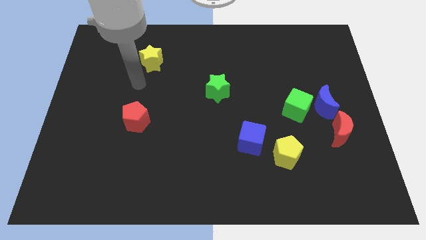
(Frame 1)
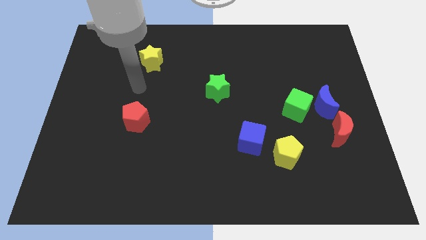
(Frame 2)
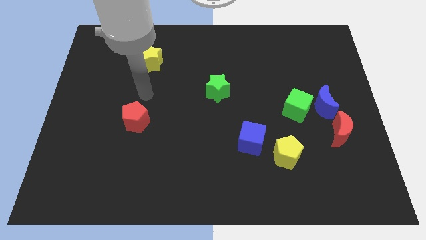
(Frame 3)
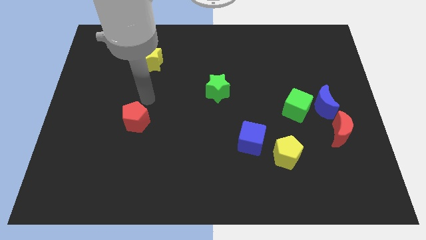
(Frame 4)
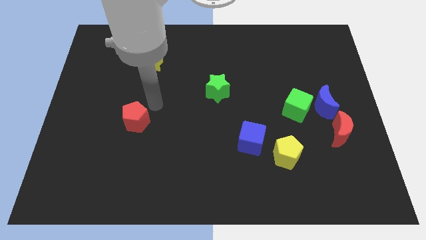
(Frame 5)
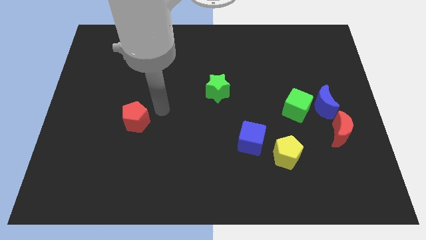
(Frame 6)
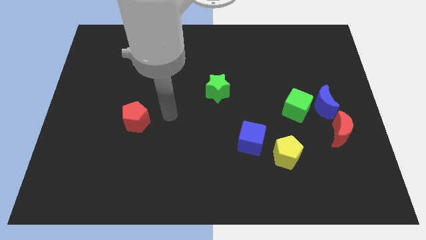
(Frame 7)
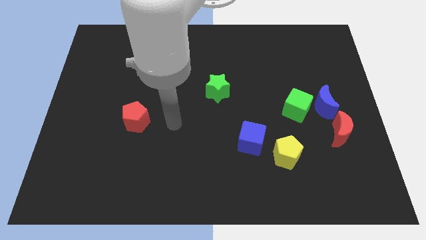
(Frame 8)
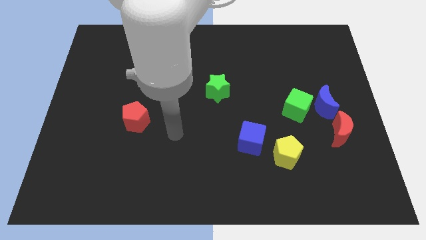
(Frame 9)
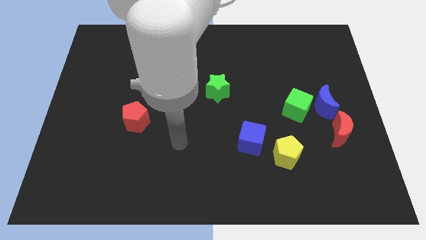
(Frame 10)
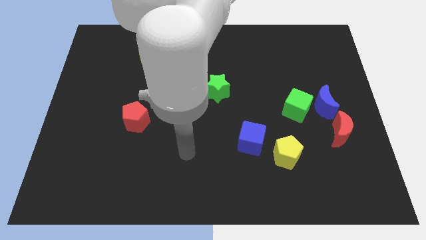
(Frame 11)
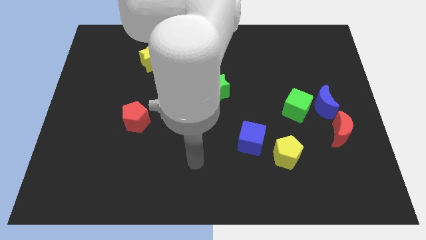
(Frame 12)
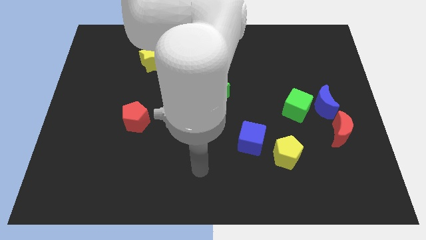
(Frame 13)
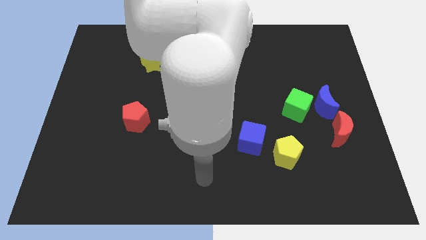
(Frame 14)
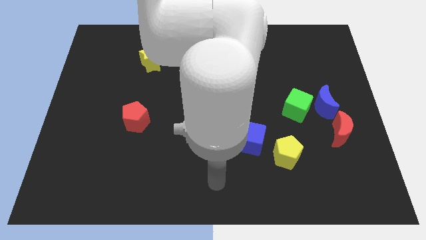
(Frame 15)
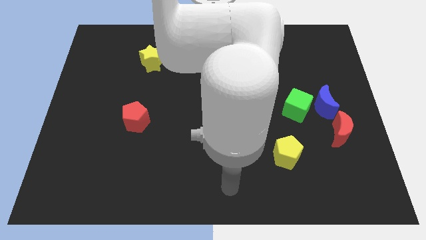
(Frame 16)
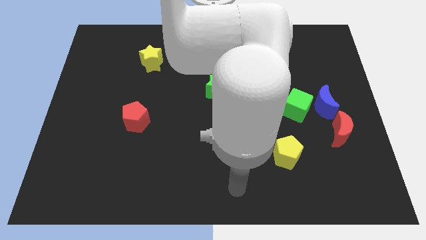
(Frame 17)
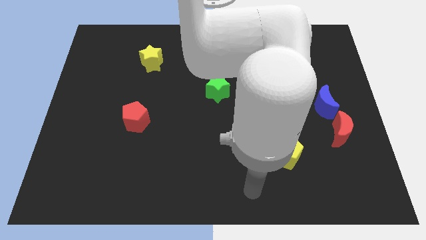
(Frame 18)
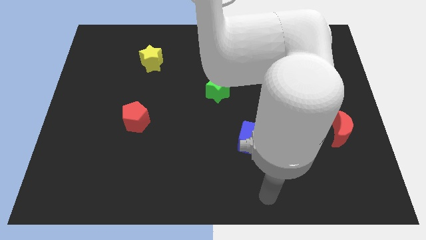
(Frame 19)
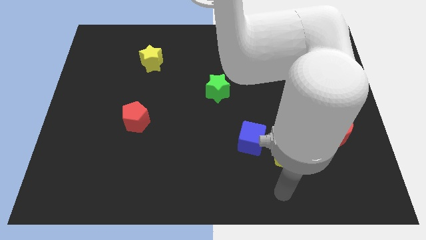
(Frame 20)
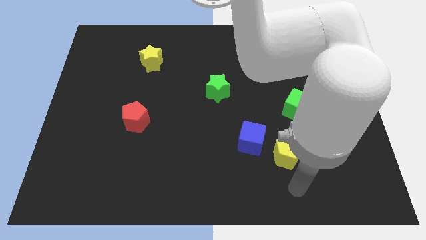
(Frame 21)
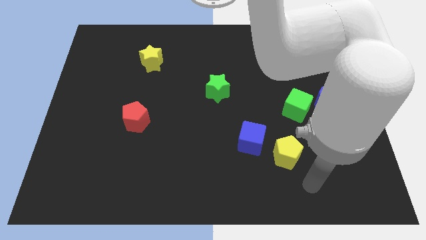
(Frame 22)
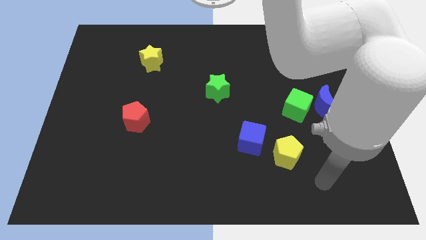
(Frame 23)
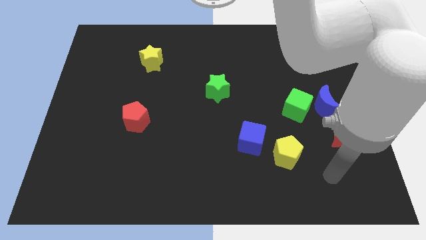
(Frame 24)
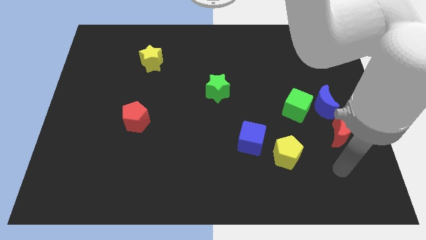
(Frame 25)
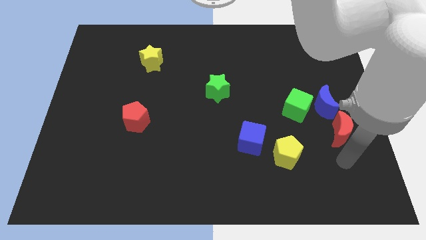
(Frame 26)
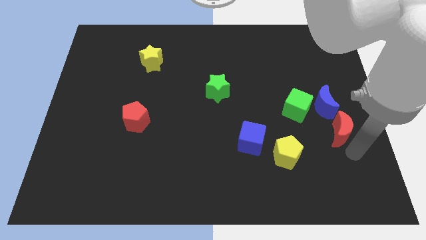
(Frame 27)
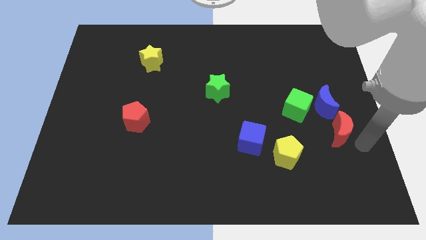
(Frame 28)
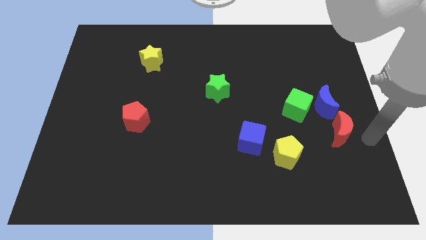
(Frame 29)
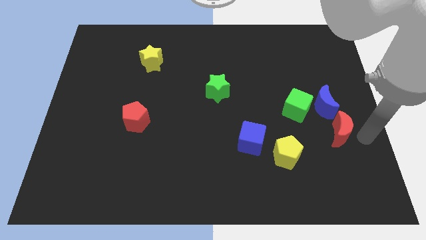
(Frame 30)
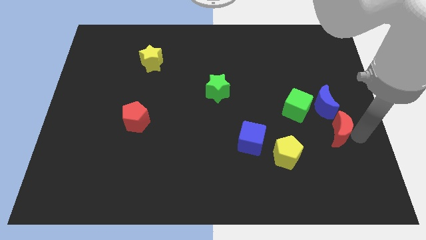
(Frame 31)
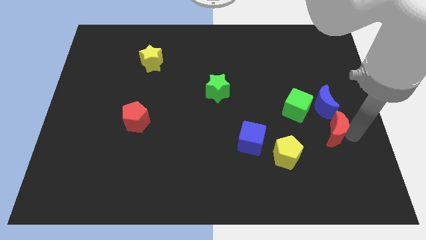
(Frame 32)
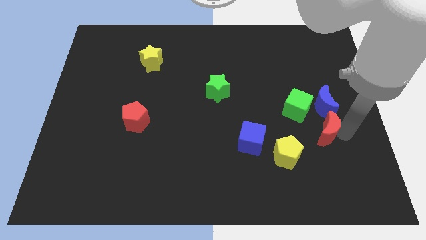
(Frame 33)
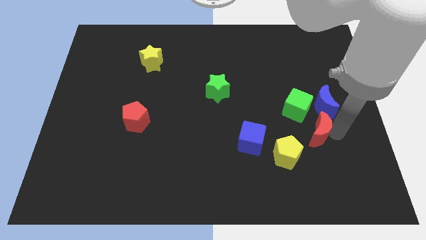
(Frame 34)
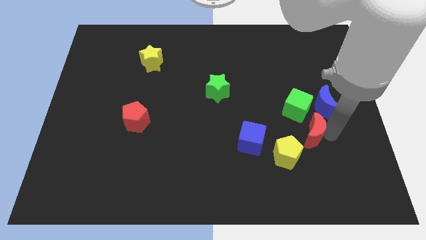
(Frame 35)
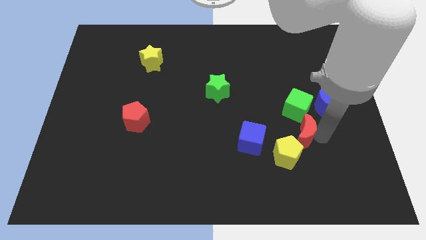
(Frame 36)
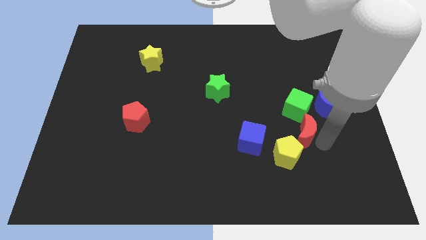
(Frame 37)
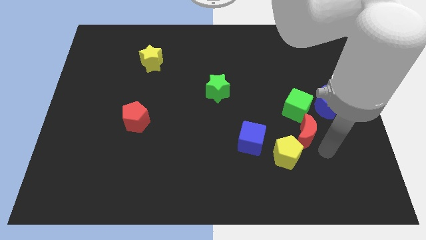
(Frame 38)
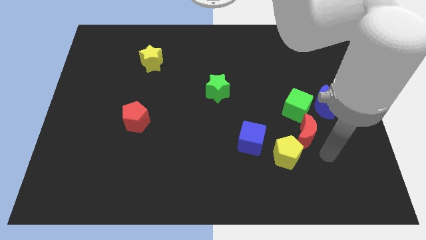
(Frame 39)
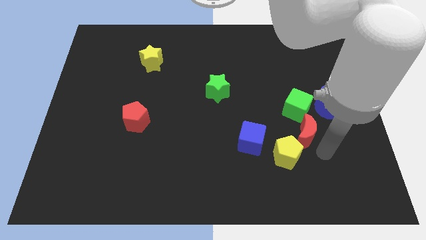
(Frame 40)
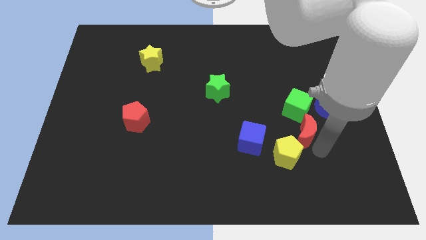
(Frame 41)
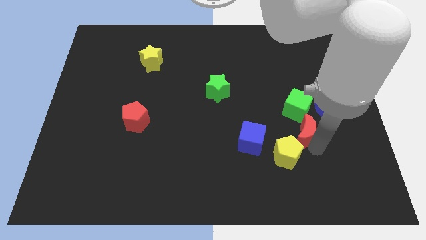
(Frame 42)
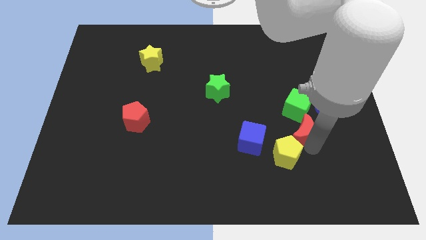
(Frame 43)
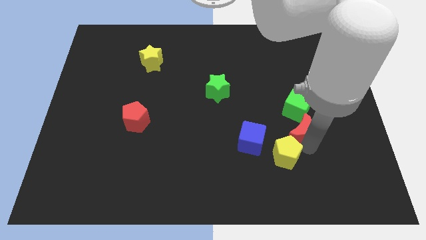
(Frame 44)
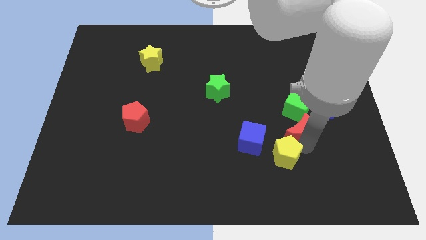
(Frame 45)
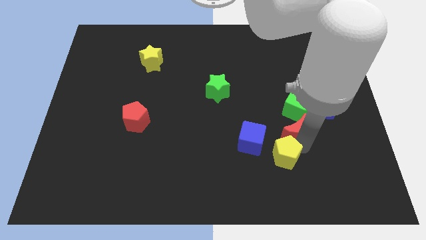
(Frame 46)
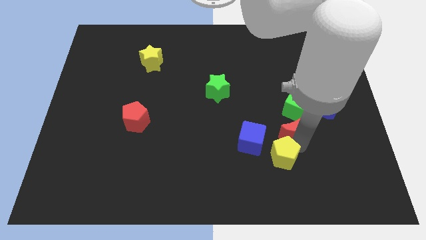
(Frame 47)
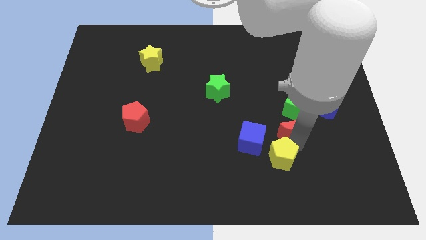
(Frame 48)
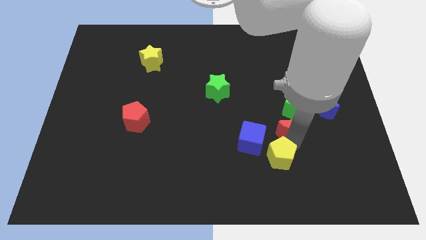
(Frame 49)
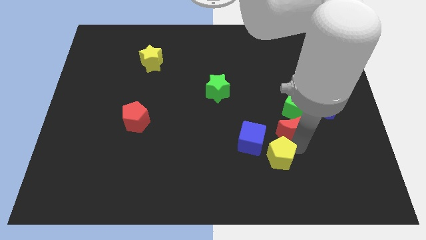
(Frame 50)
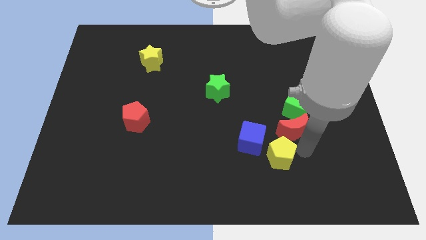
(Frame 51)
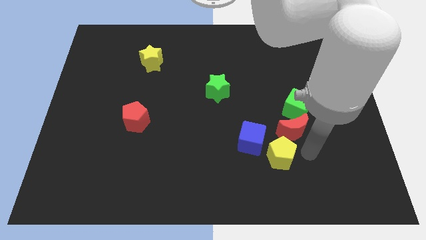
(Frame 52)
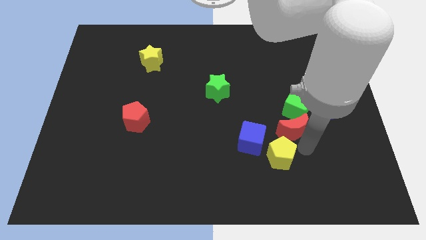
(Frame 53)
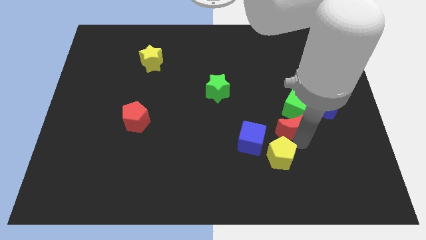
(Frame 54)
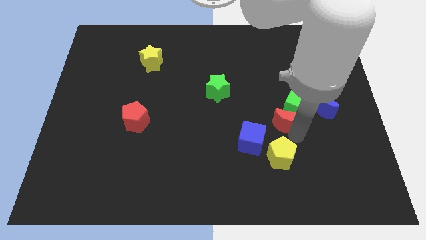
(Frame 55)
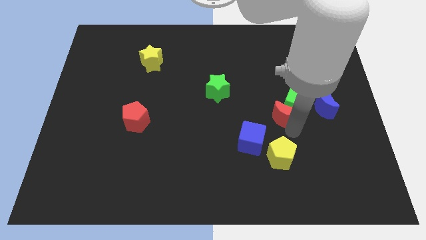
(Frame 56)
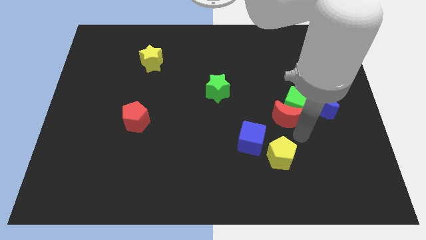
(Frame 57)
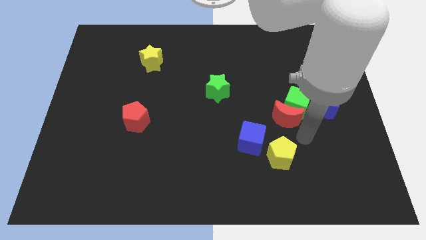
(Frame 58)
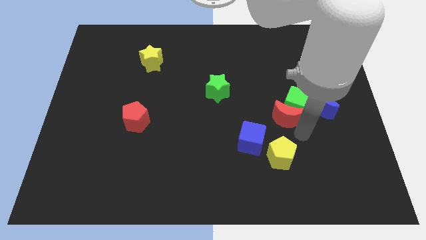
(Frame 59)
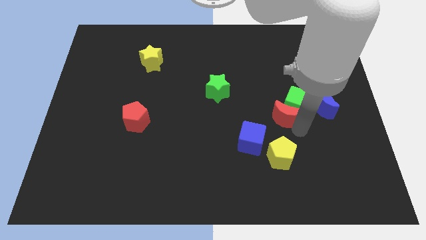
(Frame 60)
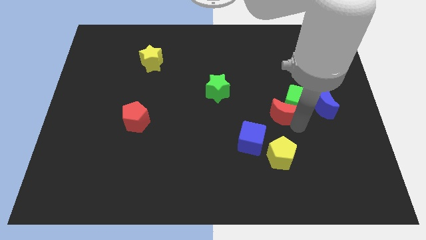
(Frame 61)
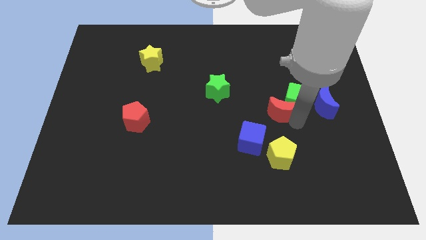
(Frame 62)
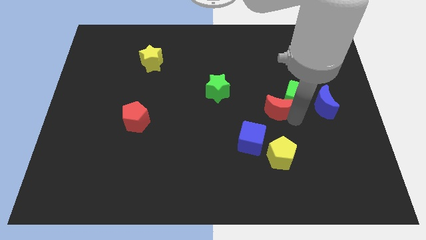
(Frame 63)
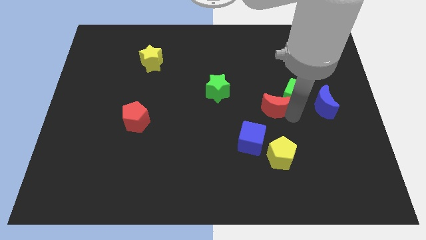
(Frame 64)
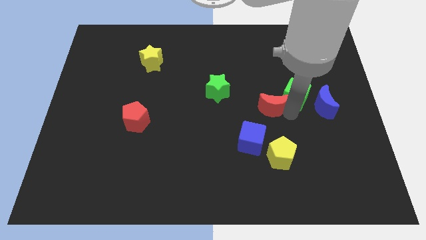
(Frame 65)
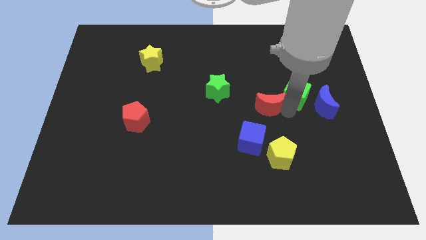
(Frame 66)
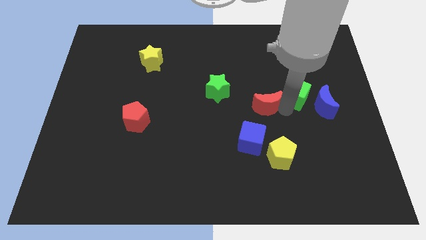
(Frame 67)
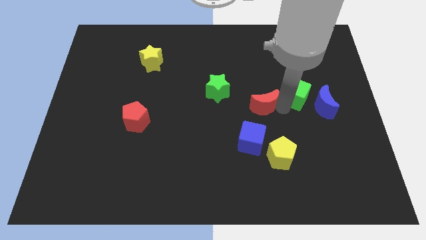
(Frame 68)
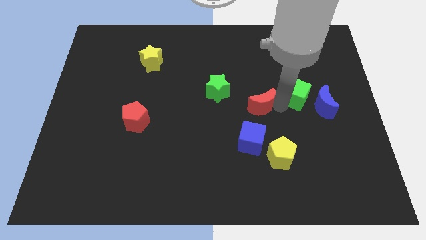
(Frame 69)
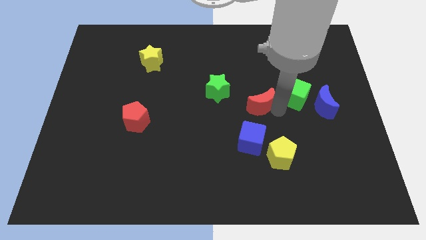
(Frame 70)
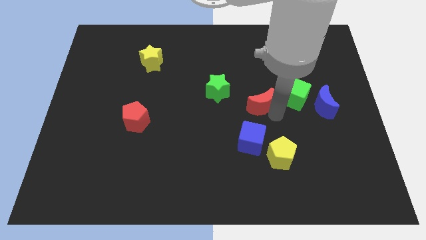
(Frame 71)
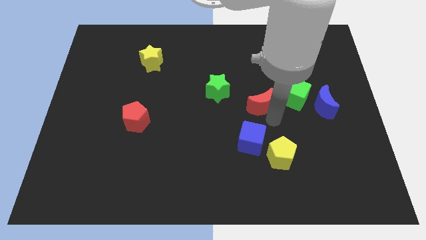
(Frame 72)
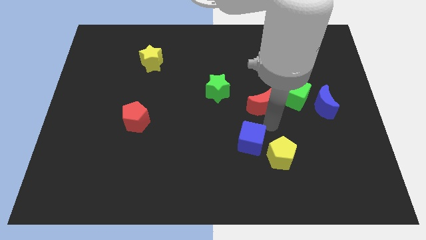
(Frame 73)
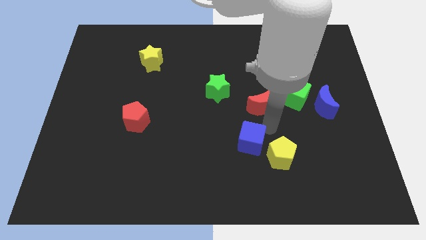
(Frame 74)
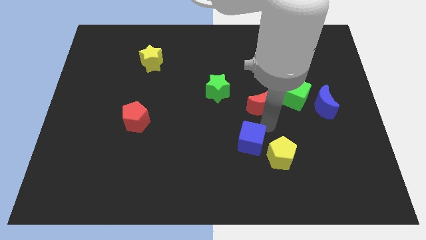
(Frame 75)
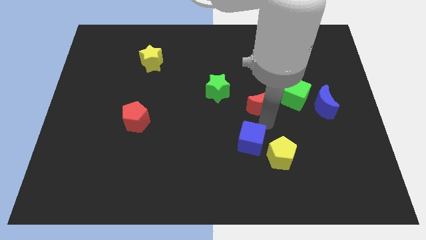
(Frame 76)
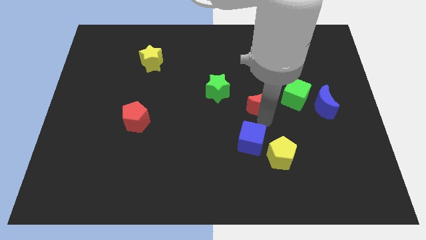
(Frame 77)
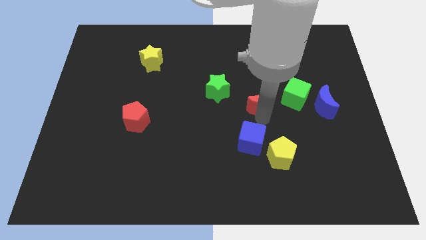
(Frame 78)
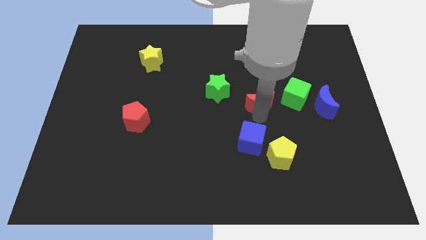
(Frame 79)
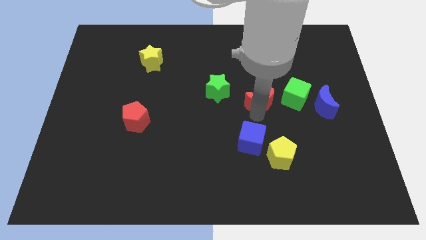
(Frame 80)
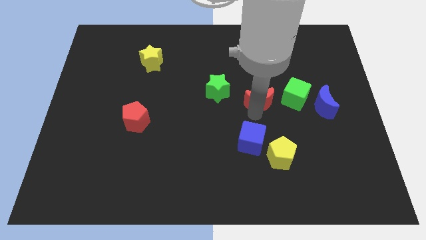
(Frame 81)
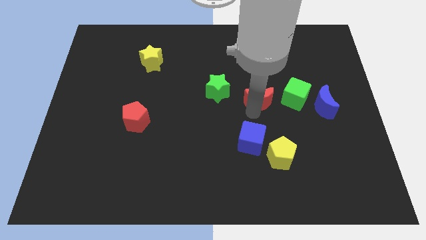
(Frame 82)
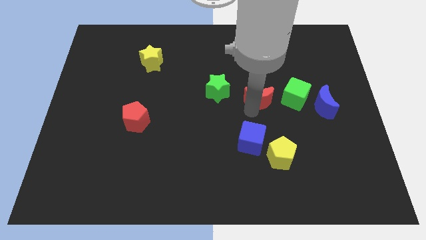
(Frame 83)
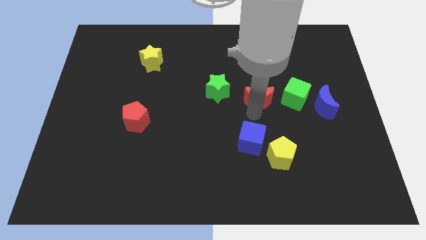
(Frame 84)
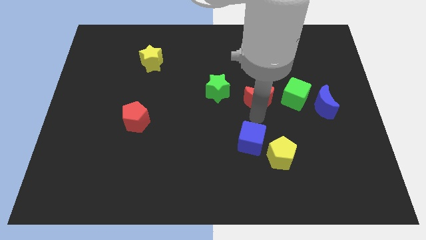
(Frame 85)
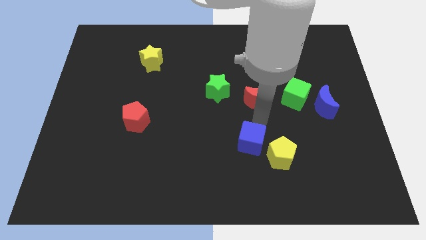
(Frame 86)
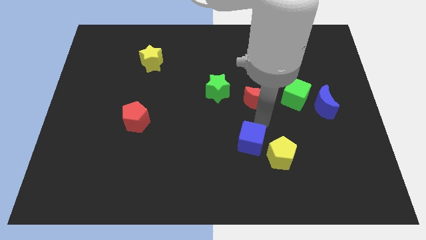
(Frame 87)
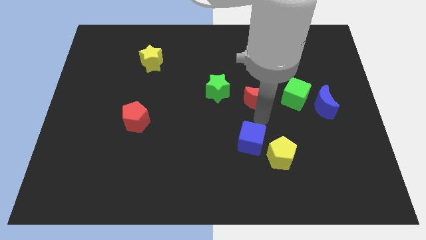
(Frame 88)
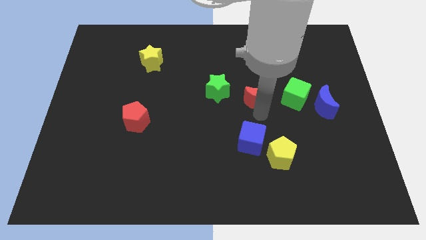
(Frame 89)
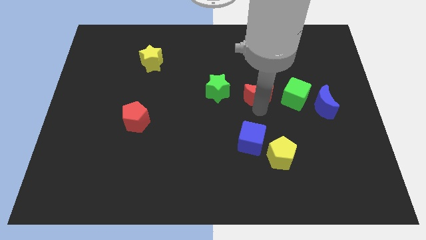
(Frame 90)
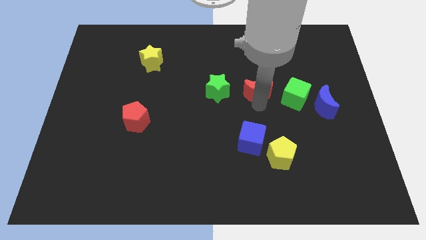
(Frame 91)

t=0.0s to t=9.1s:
move the red moon upwards and then left
